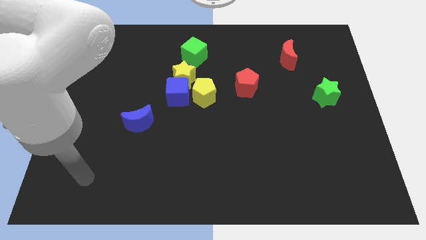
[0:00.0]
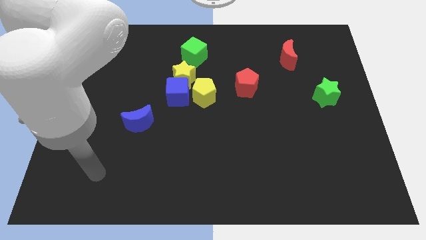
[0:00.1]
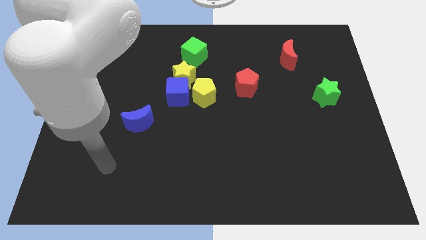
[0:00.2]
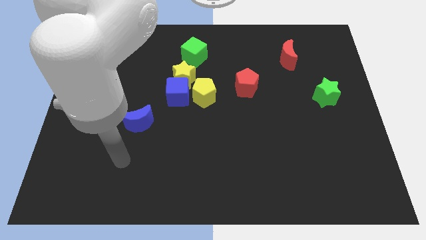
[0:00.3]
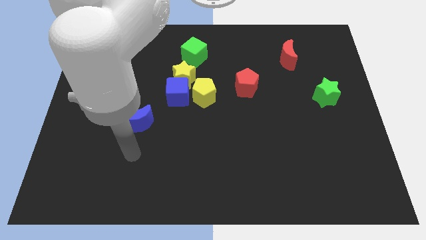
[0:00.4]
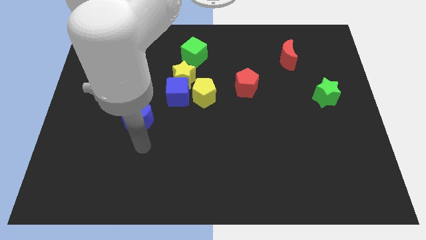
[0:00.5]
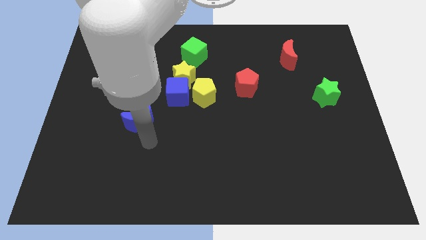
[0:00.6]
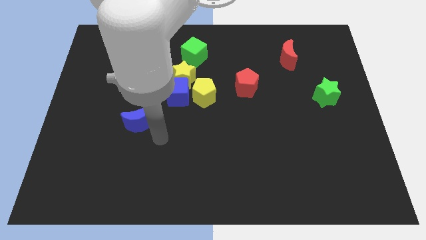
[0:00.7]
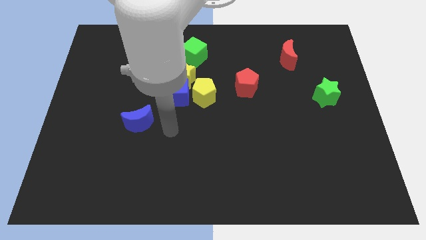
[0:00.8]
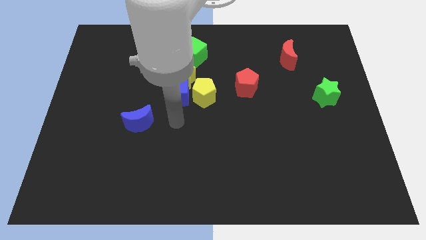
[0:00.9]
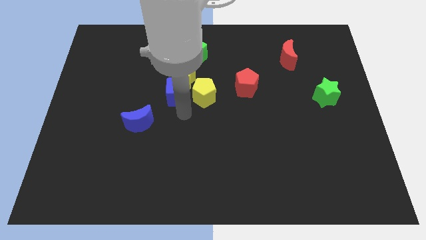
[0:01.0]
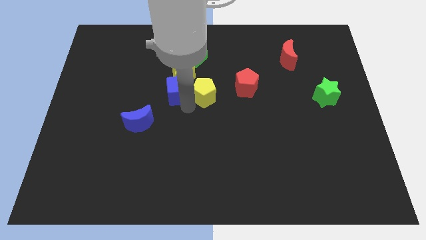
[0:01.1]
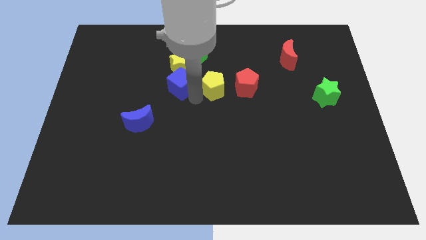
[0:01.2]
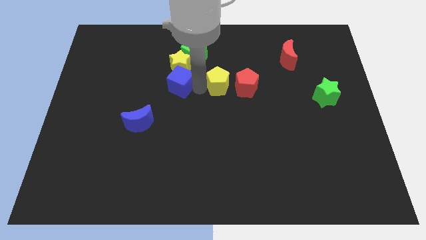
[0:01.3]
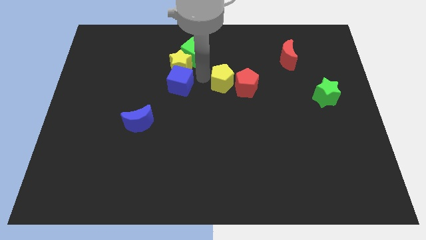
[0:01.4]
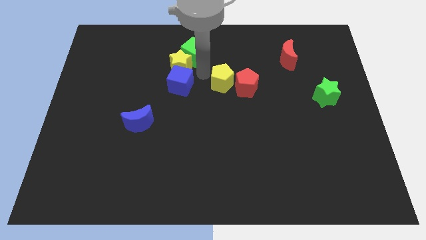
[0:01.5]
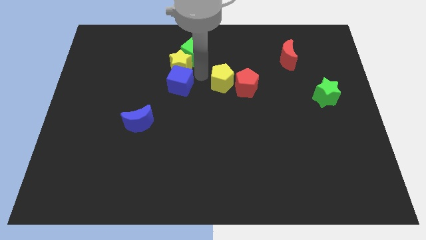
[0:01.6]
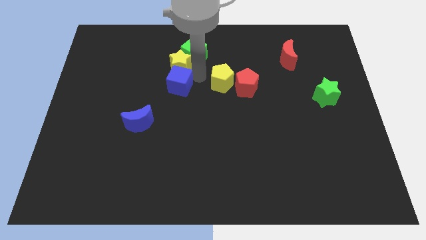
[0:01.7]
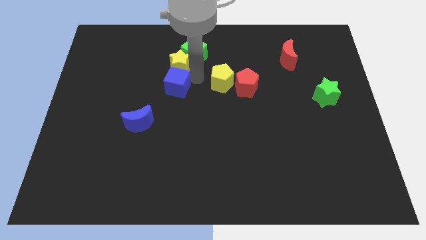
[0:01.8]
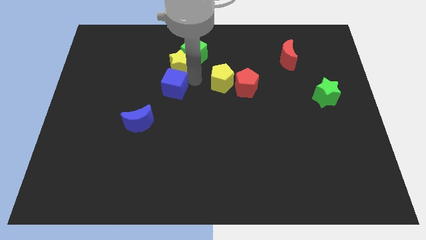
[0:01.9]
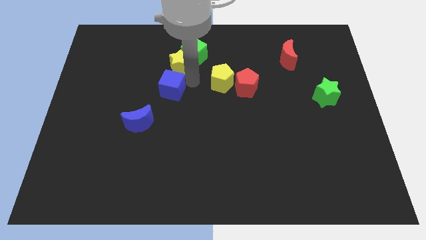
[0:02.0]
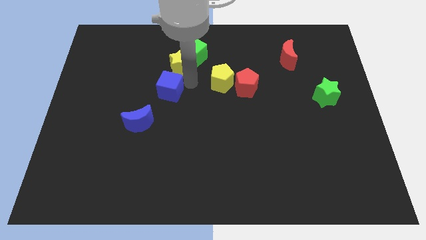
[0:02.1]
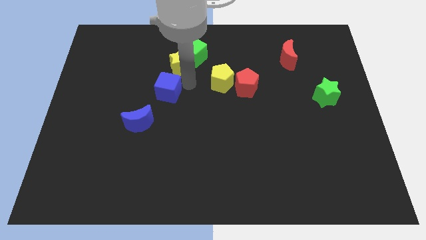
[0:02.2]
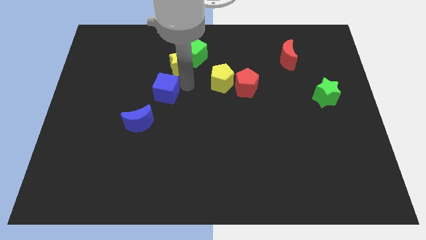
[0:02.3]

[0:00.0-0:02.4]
pull the blue cube apart from the yellow star and yellow pentagon

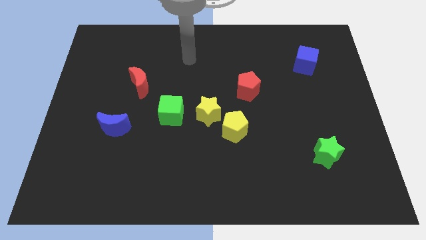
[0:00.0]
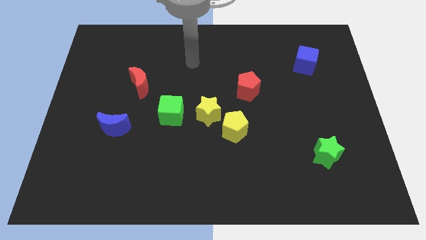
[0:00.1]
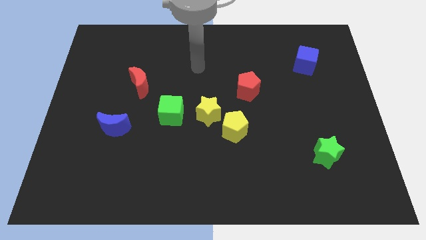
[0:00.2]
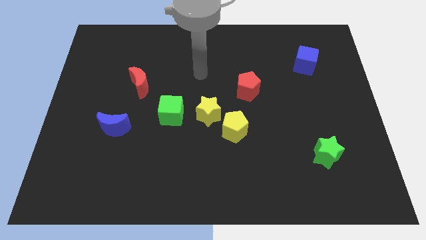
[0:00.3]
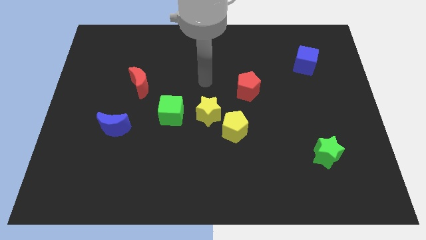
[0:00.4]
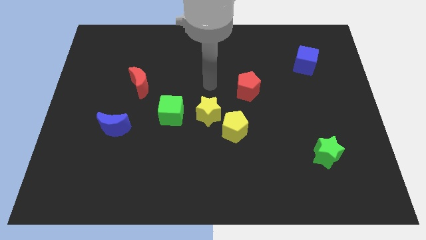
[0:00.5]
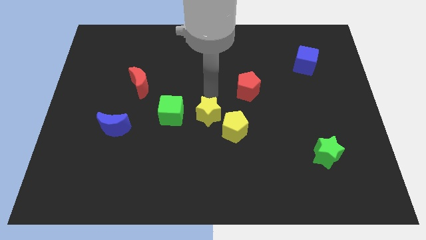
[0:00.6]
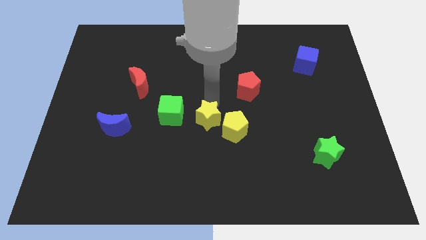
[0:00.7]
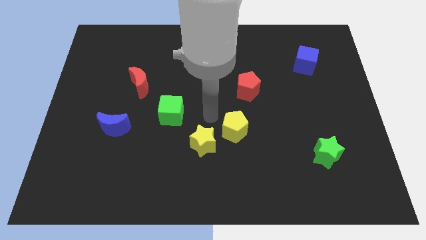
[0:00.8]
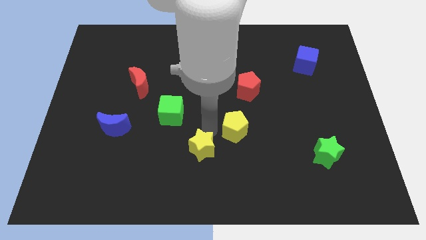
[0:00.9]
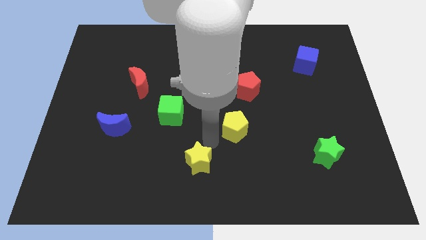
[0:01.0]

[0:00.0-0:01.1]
pull the yellow pentagon apart from the yellow star

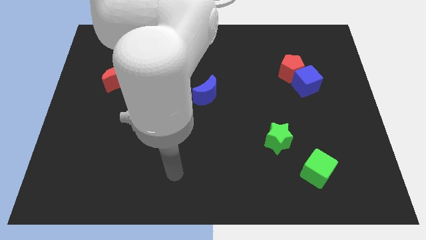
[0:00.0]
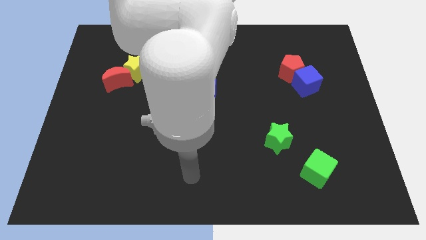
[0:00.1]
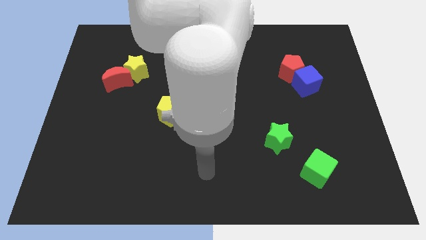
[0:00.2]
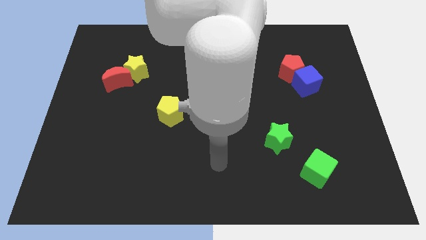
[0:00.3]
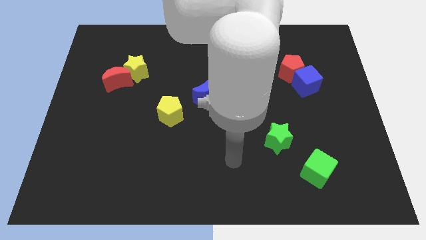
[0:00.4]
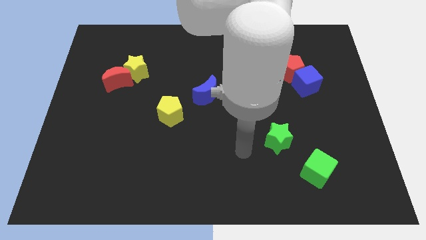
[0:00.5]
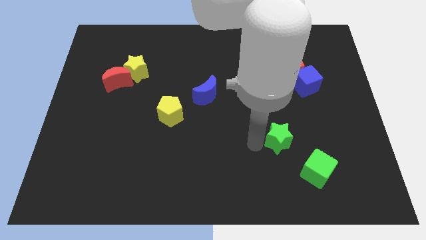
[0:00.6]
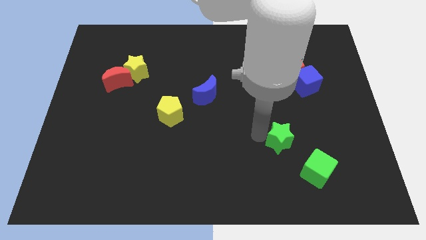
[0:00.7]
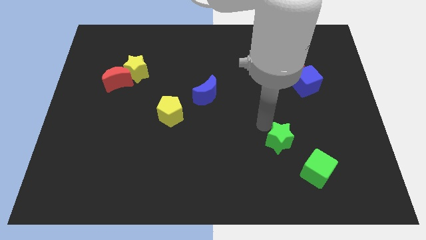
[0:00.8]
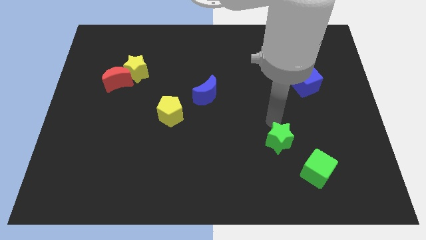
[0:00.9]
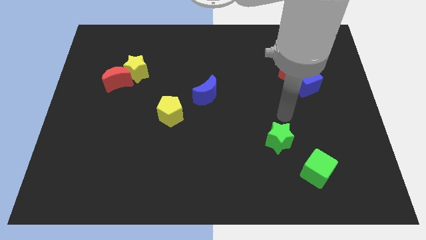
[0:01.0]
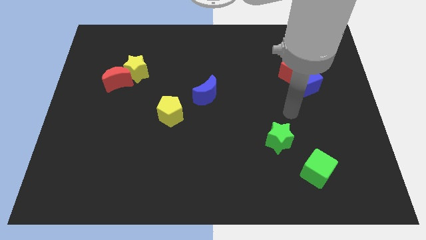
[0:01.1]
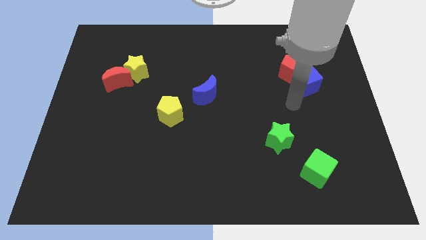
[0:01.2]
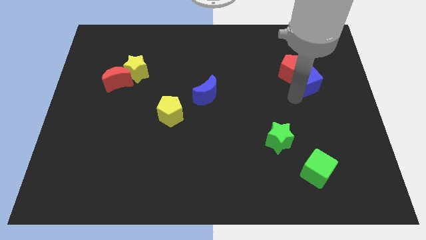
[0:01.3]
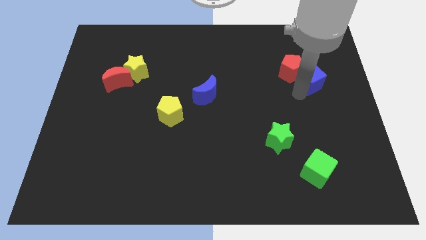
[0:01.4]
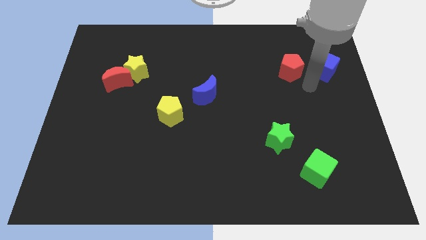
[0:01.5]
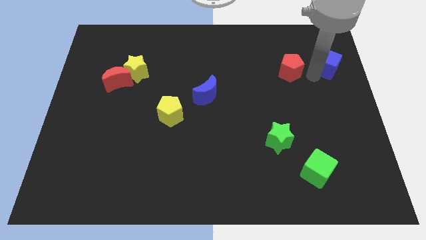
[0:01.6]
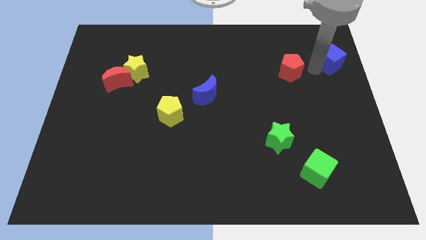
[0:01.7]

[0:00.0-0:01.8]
separate the red pentagon from the blue cube

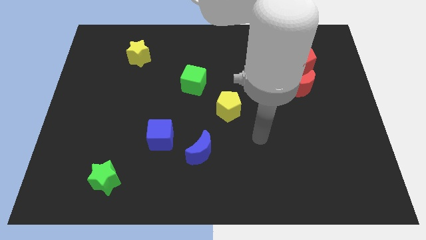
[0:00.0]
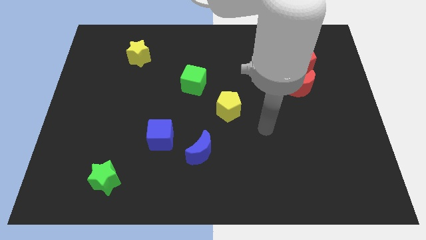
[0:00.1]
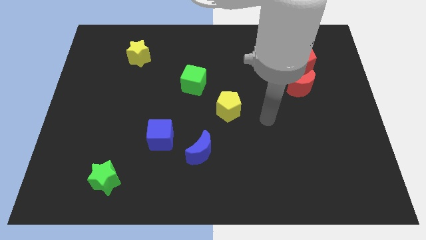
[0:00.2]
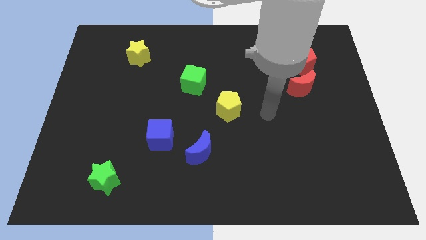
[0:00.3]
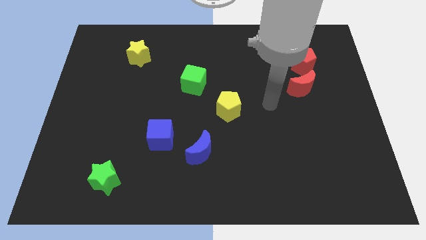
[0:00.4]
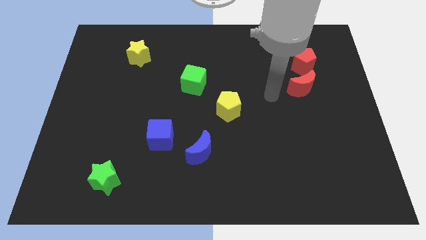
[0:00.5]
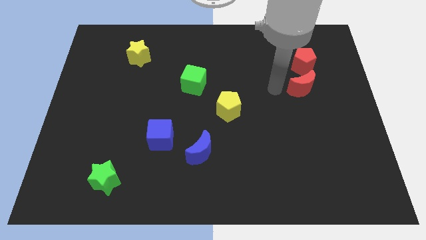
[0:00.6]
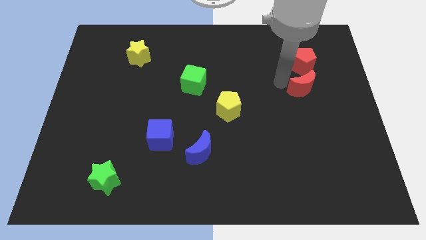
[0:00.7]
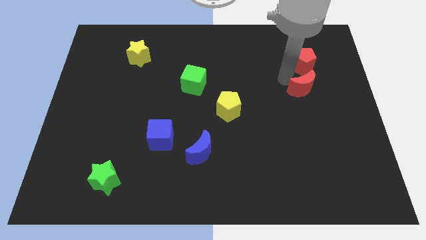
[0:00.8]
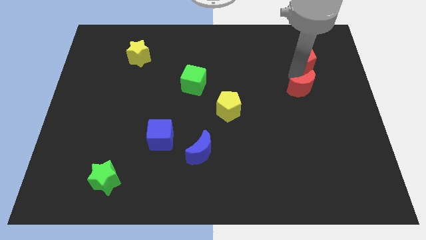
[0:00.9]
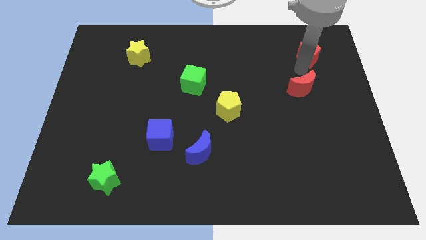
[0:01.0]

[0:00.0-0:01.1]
separate the red moon from the red pentagon

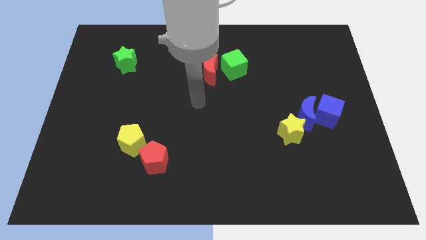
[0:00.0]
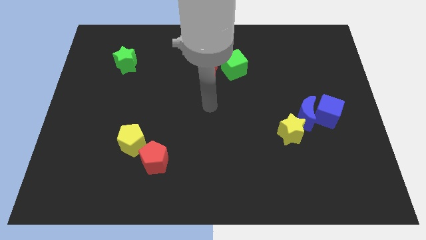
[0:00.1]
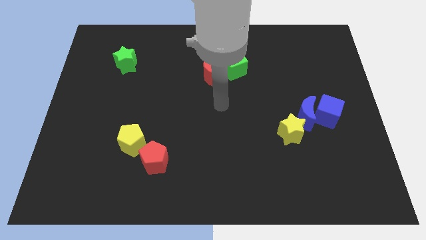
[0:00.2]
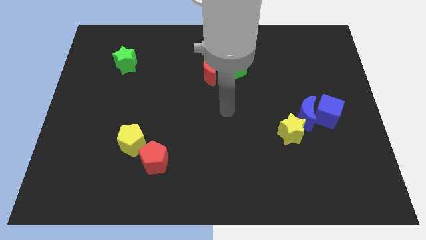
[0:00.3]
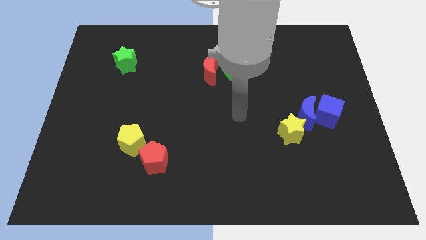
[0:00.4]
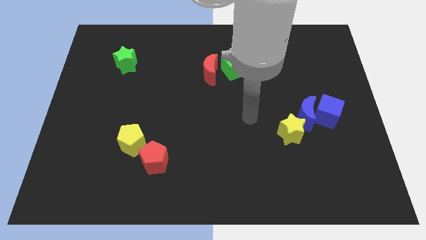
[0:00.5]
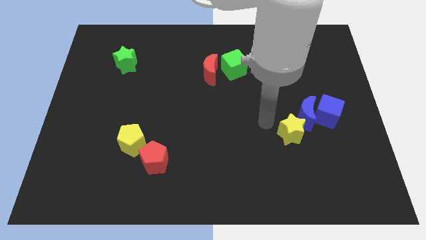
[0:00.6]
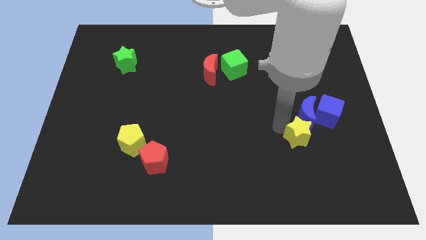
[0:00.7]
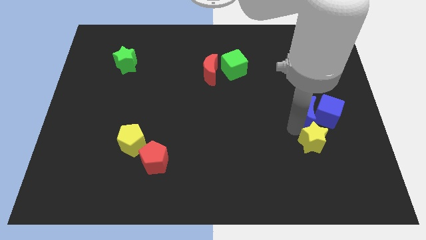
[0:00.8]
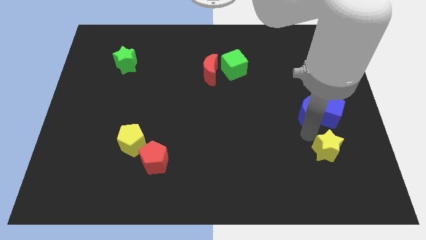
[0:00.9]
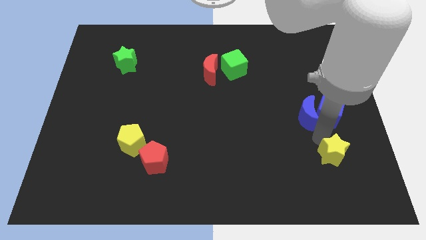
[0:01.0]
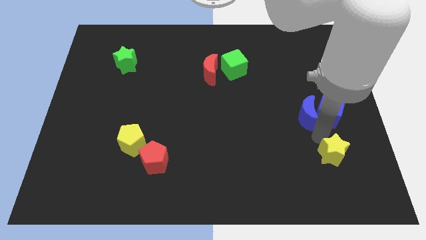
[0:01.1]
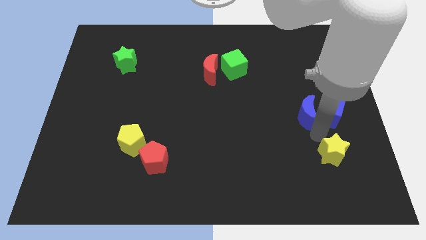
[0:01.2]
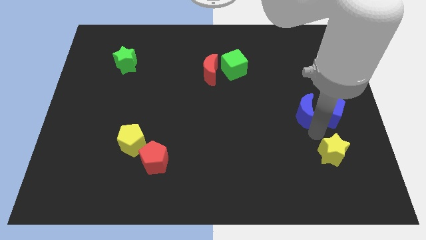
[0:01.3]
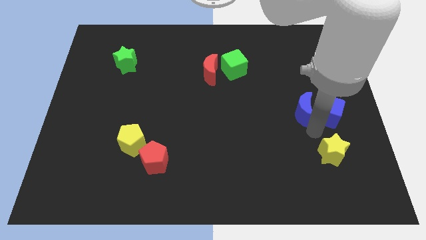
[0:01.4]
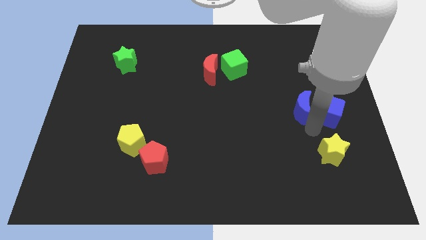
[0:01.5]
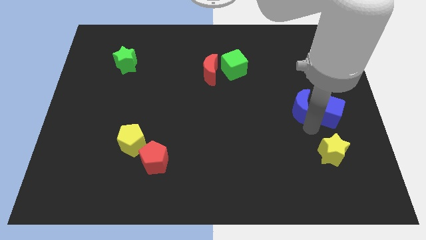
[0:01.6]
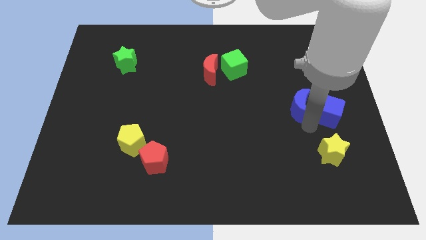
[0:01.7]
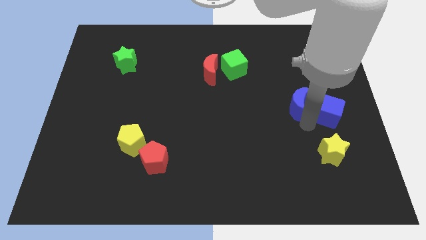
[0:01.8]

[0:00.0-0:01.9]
move the blue moon away from the blue cube and yellow star

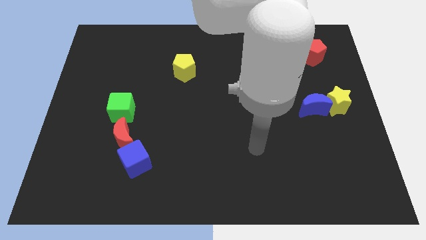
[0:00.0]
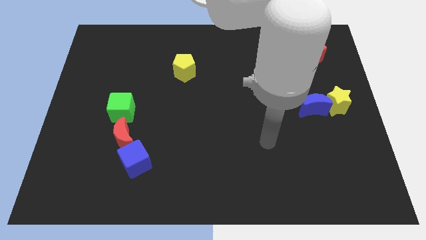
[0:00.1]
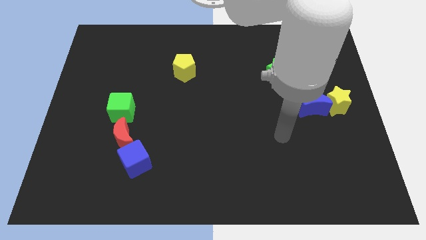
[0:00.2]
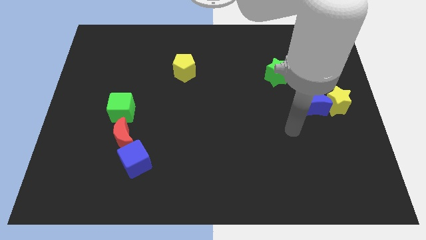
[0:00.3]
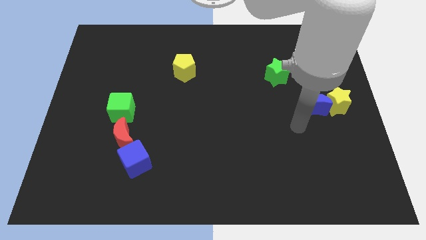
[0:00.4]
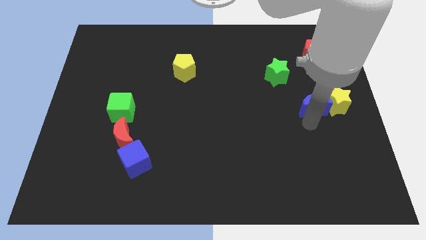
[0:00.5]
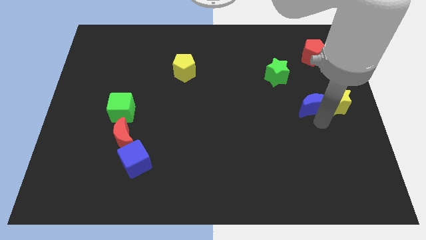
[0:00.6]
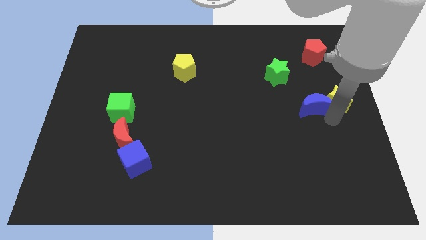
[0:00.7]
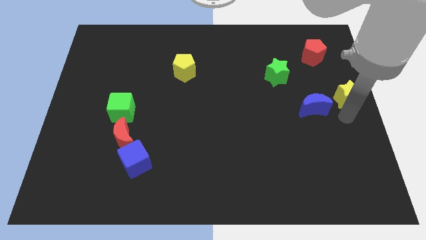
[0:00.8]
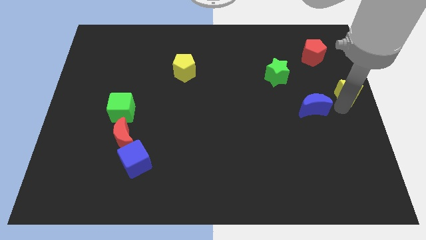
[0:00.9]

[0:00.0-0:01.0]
move the blue moon away from the yellow star
